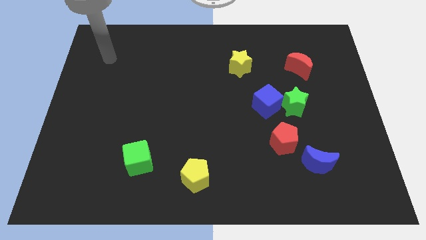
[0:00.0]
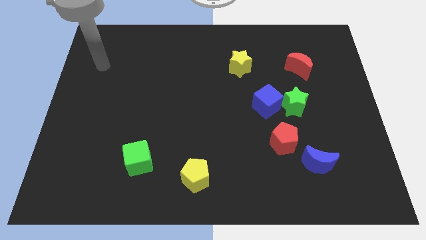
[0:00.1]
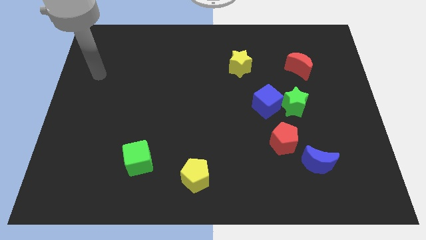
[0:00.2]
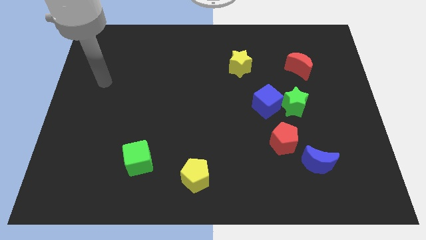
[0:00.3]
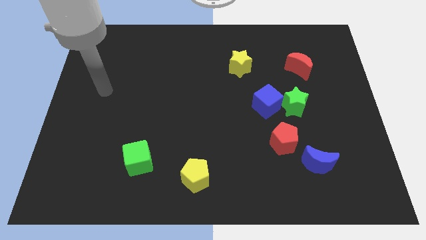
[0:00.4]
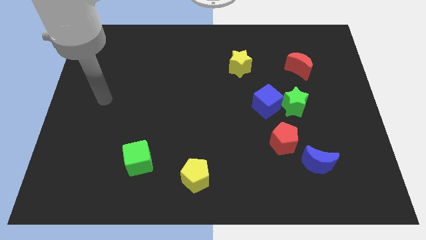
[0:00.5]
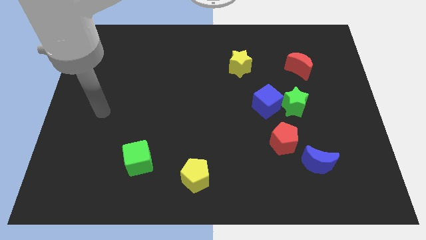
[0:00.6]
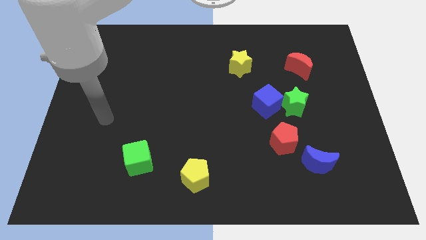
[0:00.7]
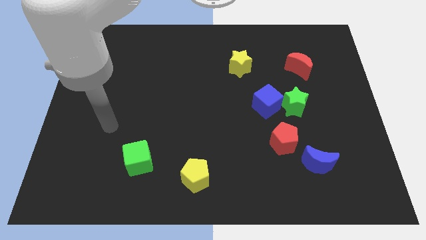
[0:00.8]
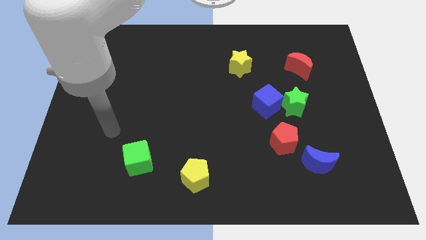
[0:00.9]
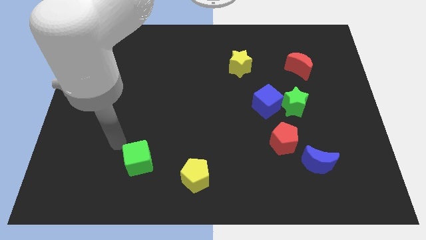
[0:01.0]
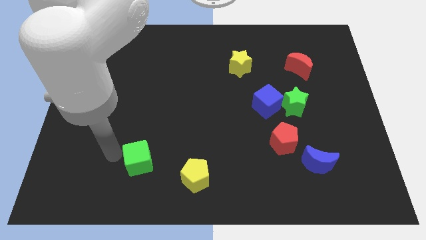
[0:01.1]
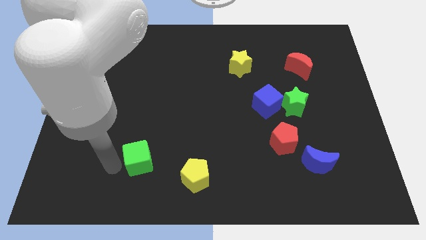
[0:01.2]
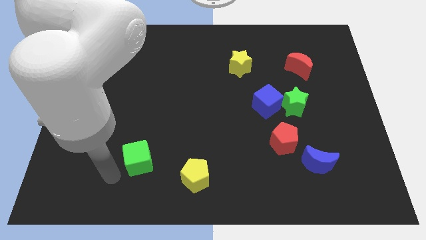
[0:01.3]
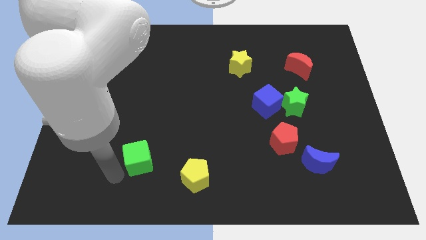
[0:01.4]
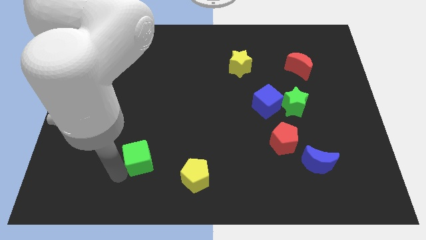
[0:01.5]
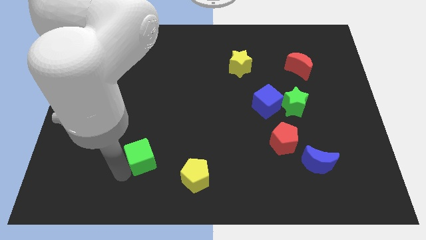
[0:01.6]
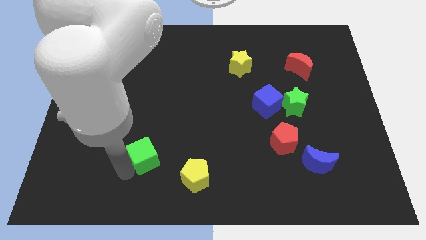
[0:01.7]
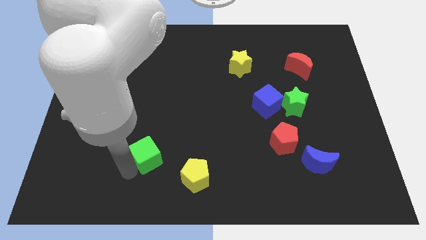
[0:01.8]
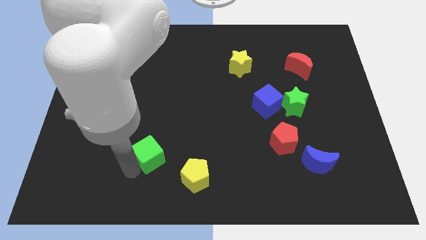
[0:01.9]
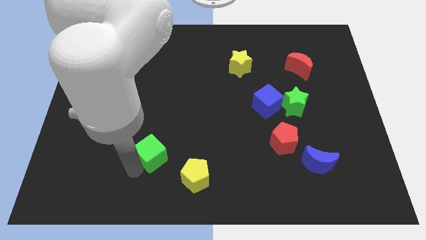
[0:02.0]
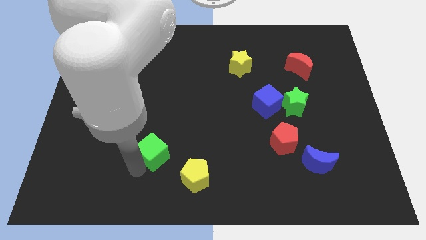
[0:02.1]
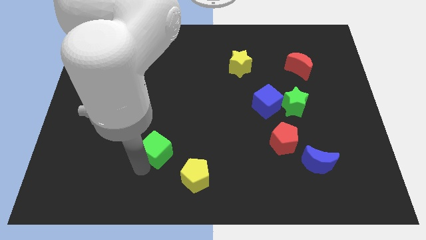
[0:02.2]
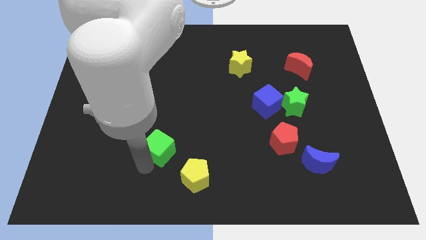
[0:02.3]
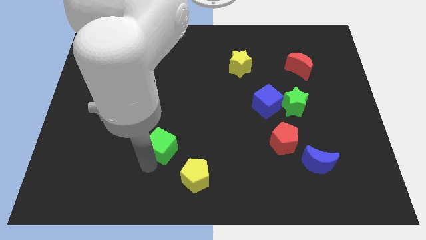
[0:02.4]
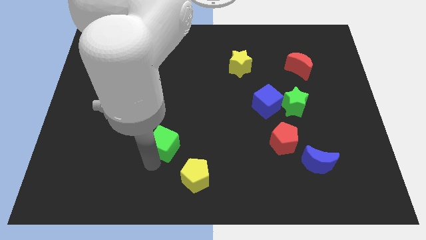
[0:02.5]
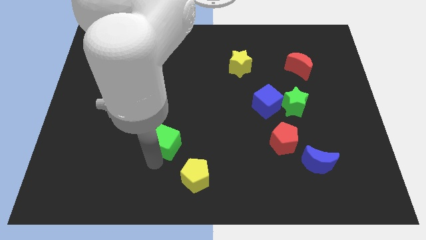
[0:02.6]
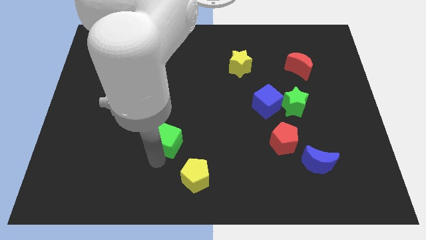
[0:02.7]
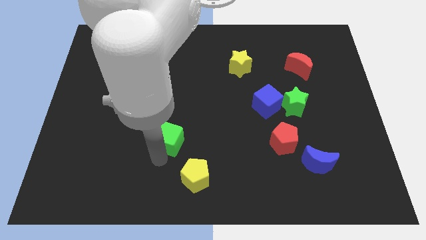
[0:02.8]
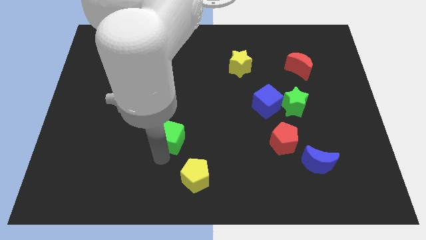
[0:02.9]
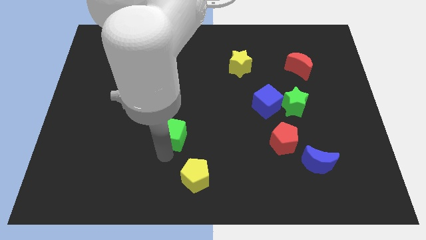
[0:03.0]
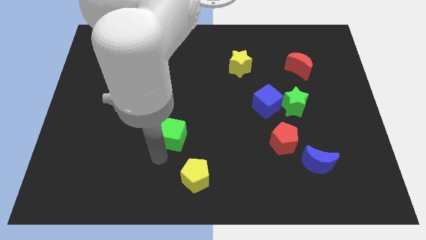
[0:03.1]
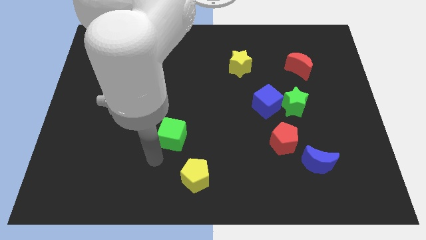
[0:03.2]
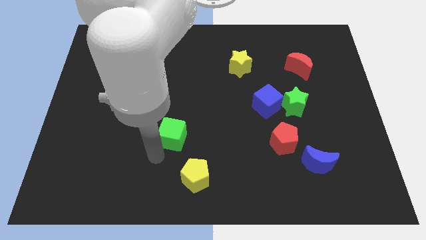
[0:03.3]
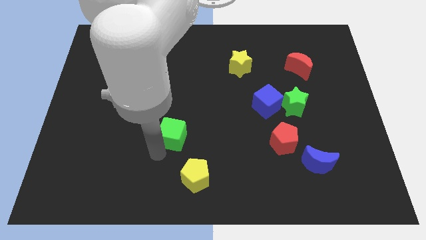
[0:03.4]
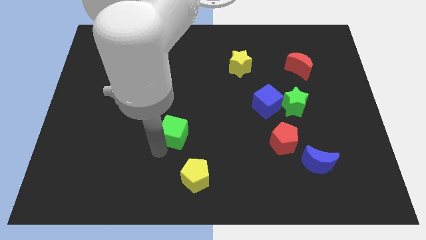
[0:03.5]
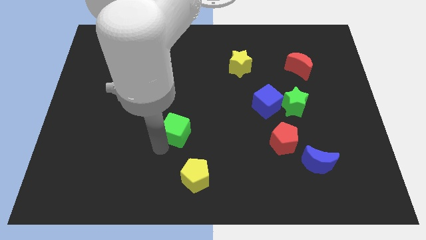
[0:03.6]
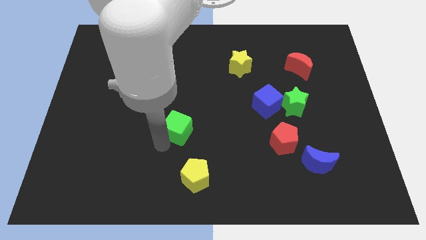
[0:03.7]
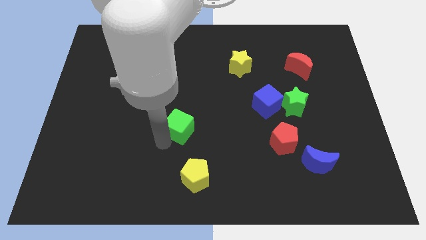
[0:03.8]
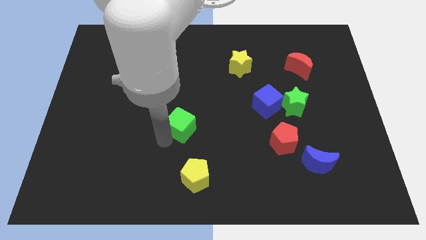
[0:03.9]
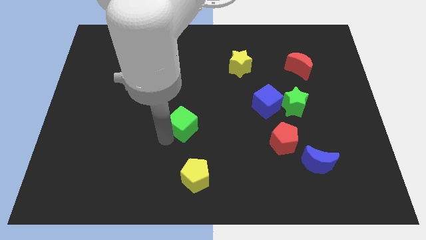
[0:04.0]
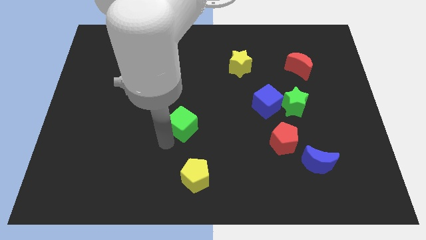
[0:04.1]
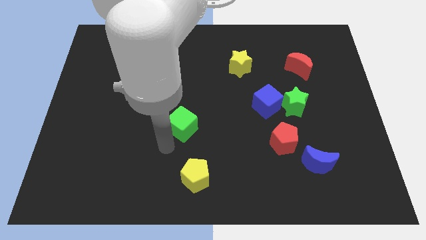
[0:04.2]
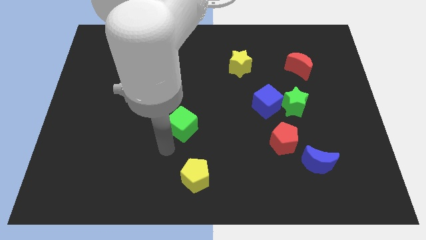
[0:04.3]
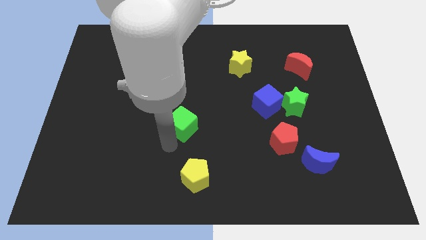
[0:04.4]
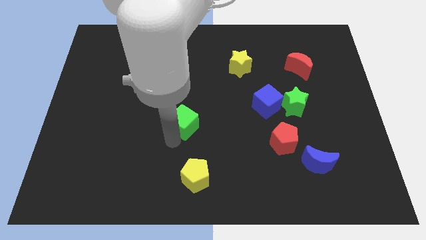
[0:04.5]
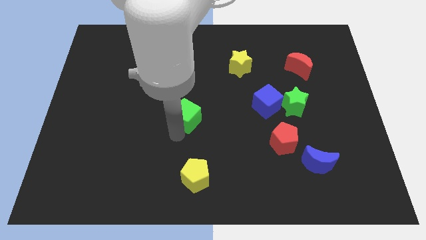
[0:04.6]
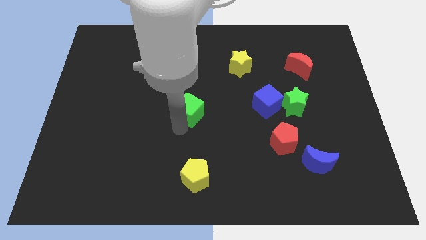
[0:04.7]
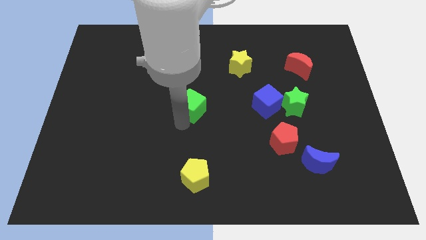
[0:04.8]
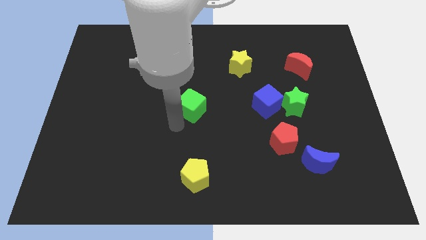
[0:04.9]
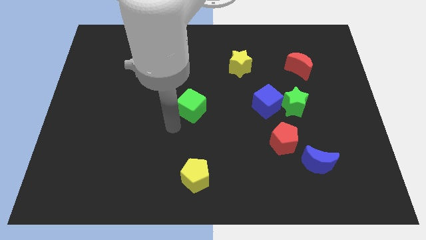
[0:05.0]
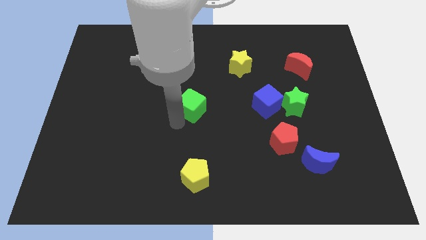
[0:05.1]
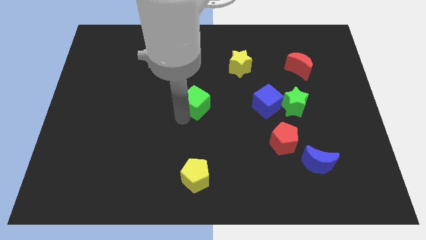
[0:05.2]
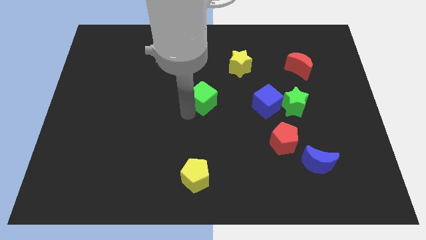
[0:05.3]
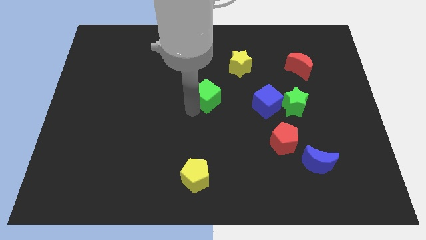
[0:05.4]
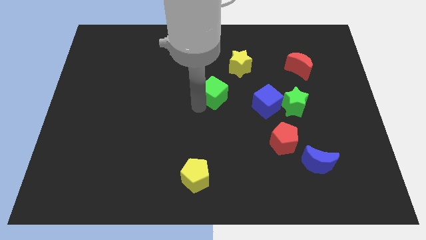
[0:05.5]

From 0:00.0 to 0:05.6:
move the green cube diagonally down and to the left of the yellow star

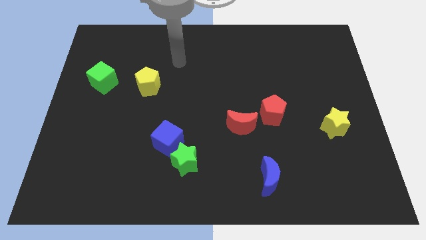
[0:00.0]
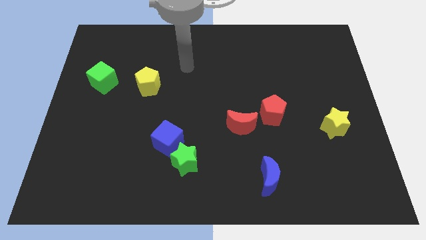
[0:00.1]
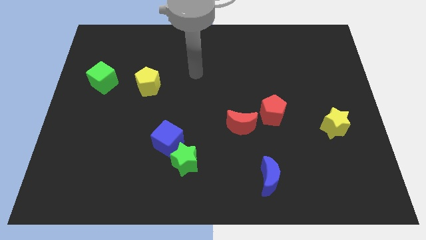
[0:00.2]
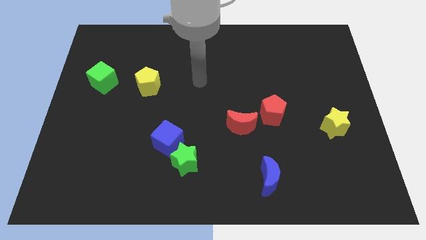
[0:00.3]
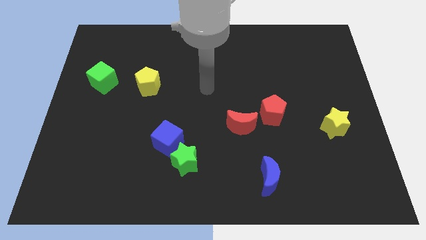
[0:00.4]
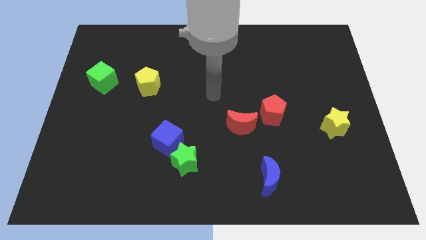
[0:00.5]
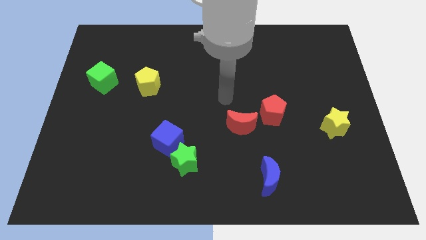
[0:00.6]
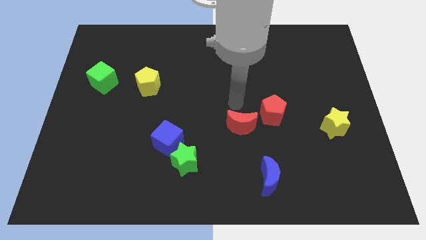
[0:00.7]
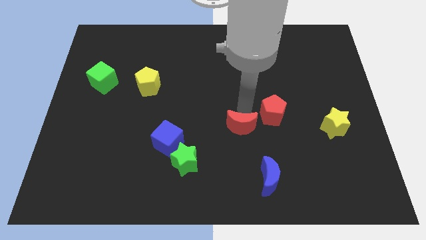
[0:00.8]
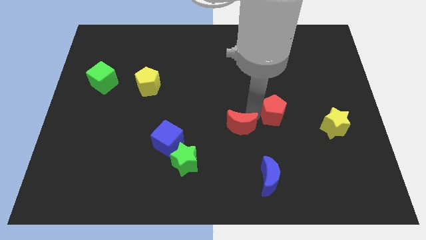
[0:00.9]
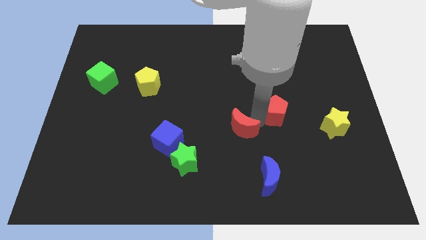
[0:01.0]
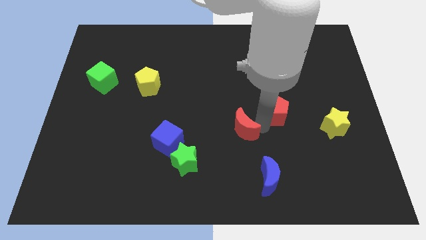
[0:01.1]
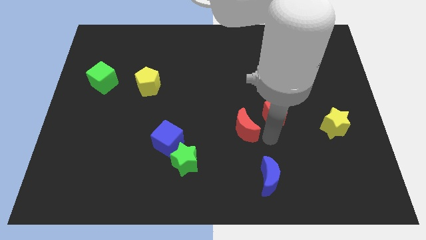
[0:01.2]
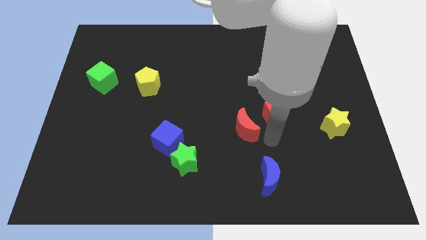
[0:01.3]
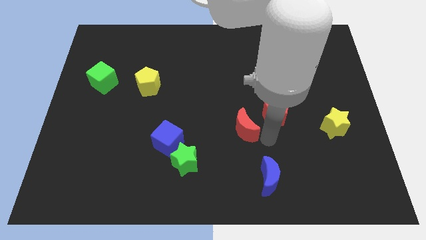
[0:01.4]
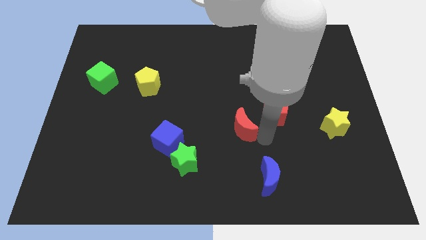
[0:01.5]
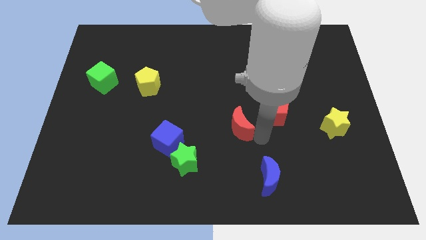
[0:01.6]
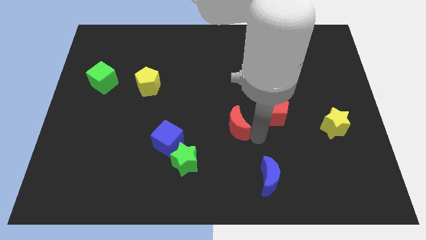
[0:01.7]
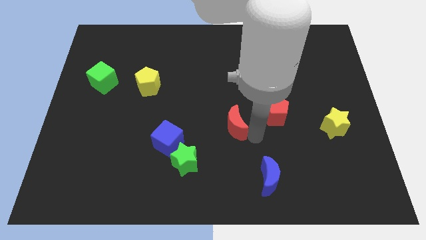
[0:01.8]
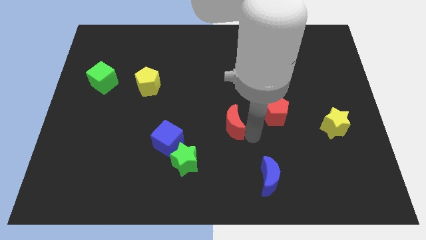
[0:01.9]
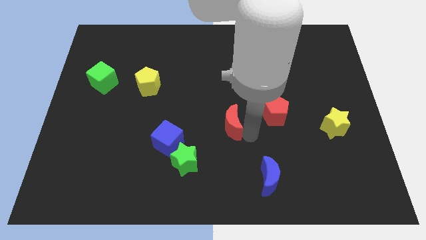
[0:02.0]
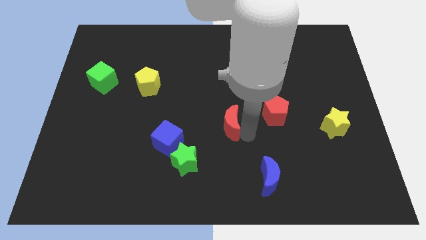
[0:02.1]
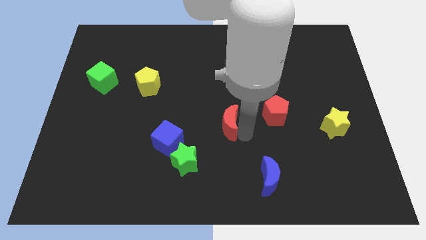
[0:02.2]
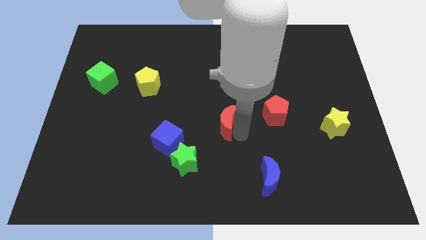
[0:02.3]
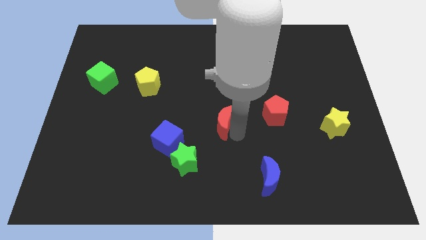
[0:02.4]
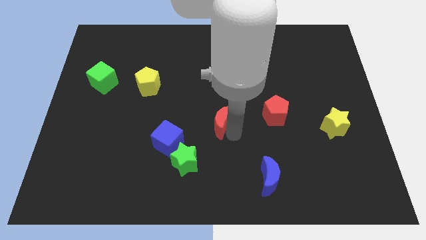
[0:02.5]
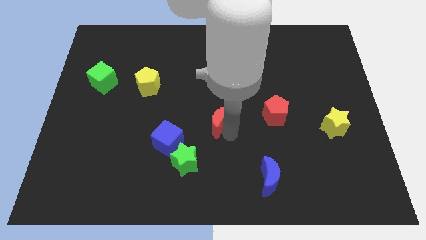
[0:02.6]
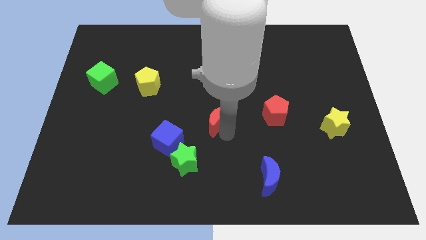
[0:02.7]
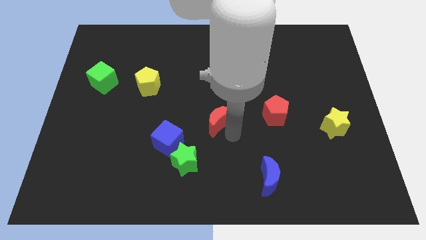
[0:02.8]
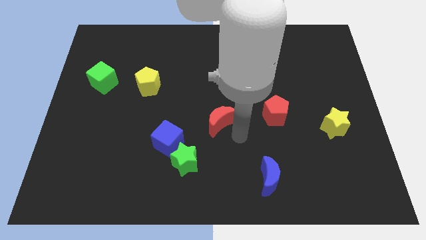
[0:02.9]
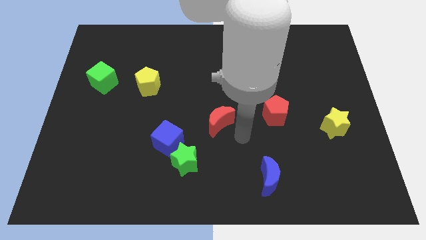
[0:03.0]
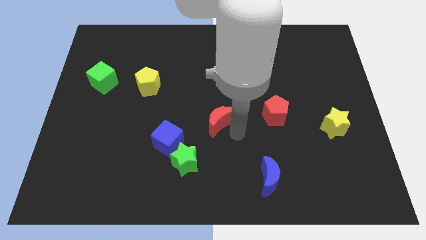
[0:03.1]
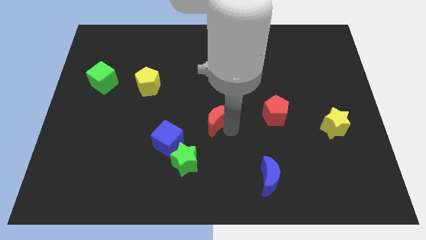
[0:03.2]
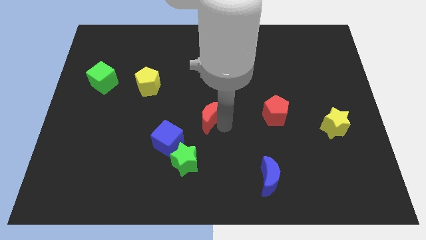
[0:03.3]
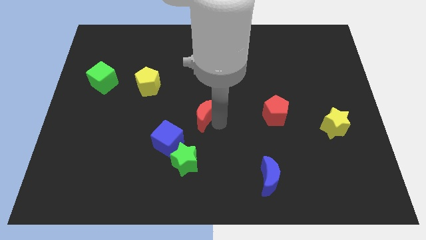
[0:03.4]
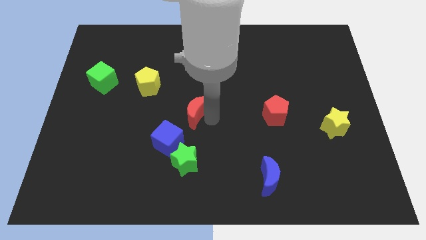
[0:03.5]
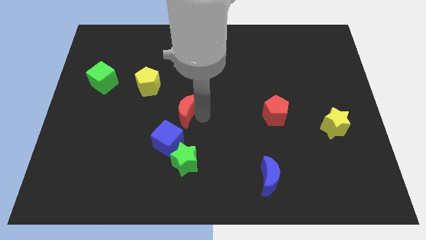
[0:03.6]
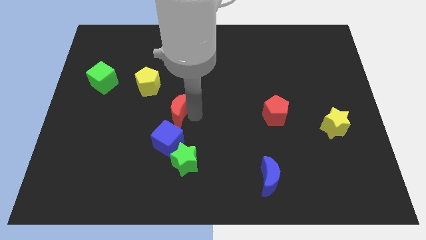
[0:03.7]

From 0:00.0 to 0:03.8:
slide the red moon diagonally down and to the right of the yellow pentagon
